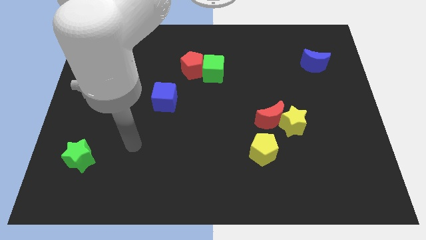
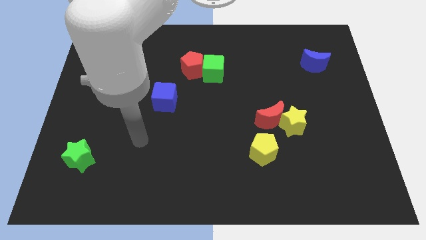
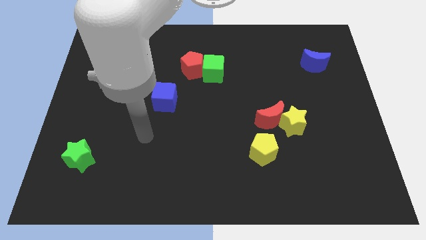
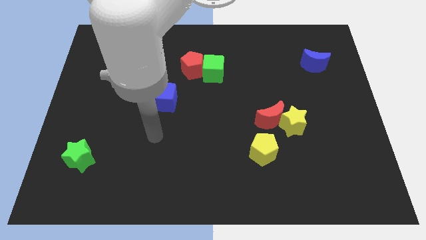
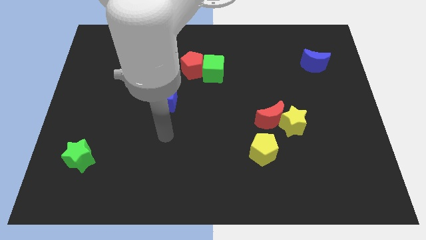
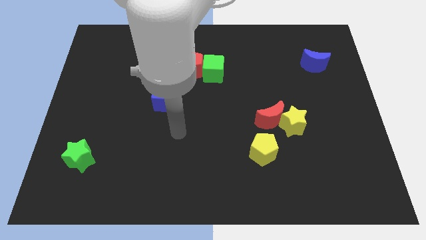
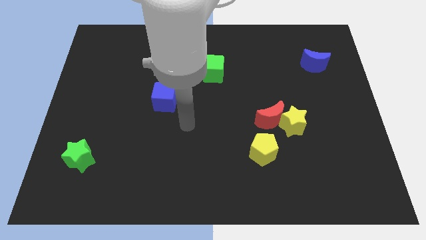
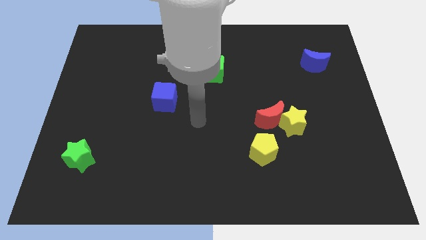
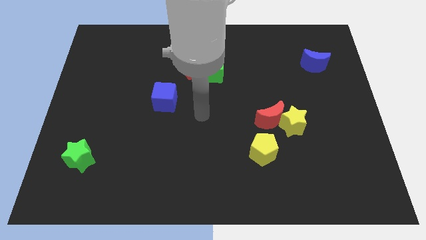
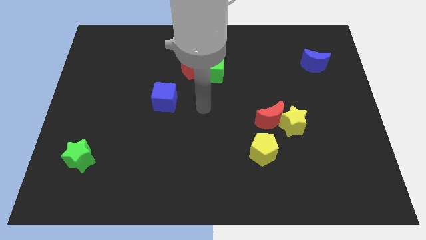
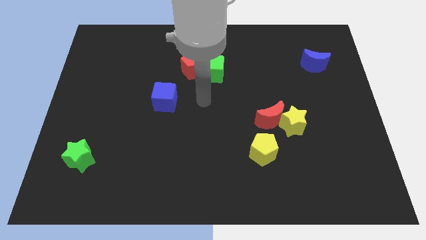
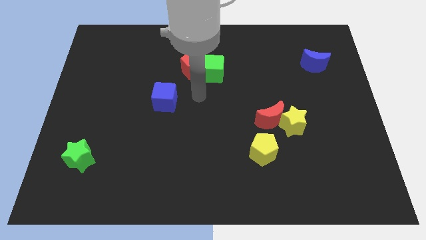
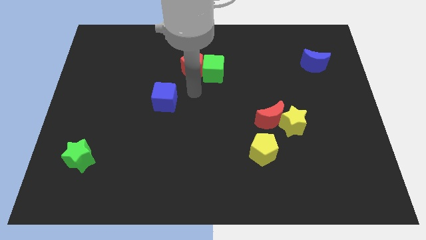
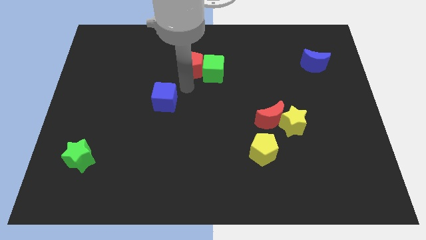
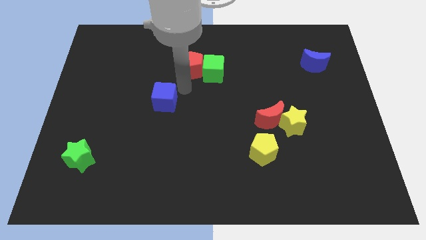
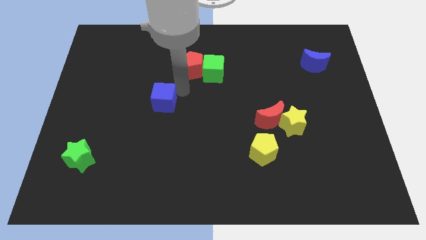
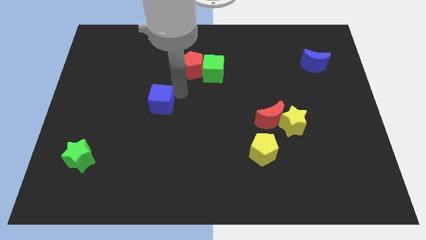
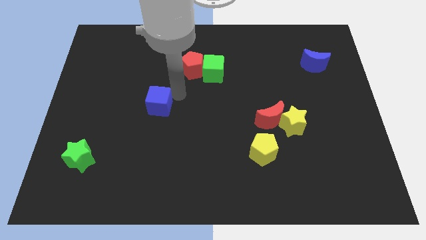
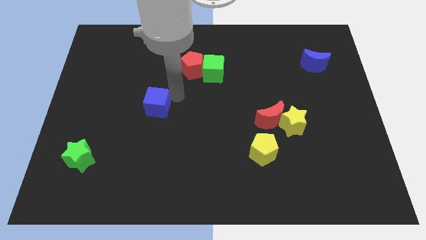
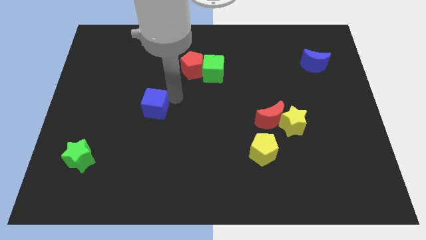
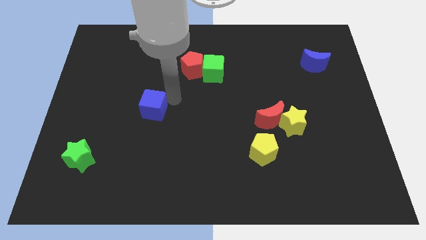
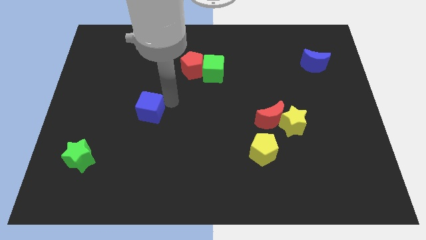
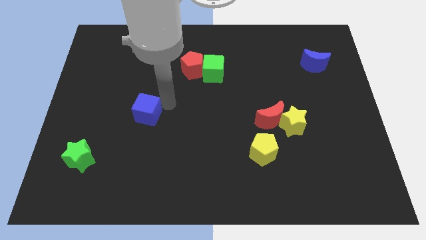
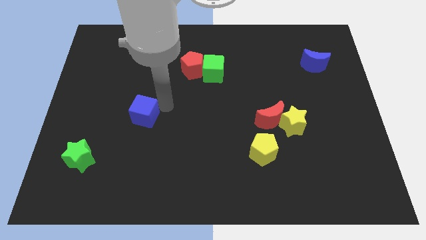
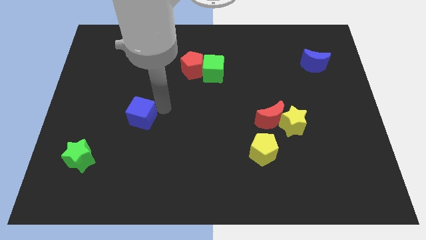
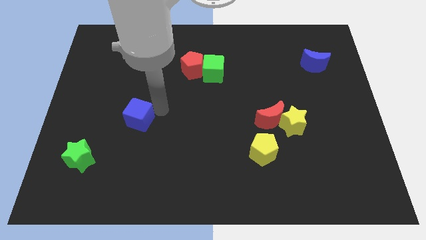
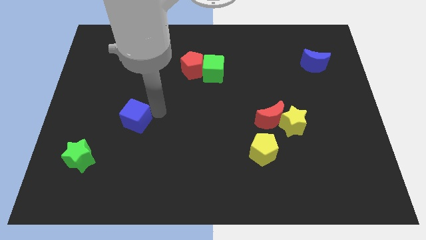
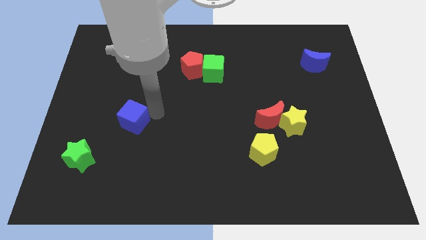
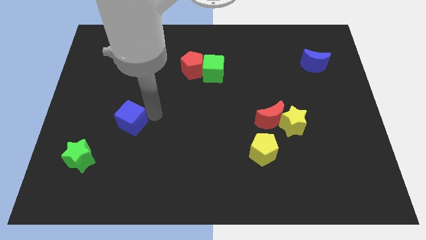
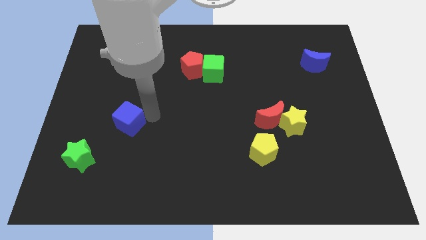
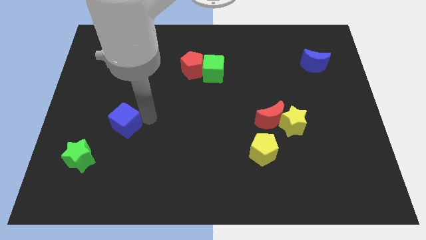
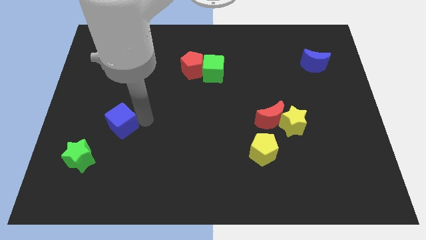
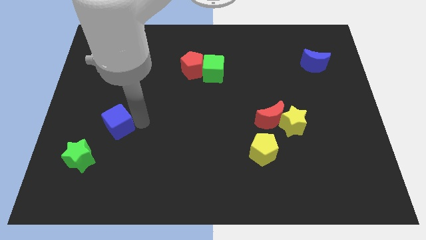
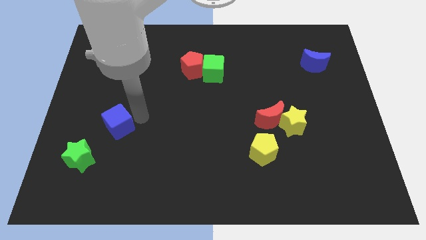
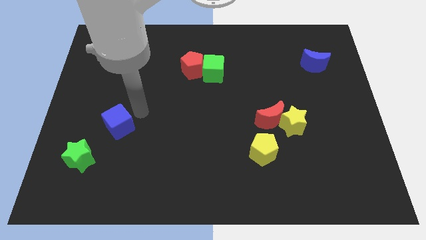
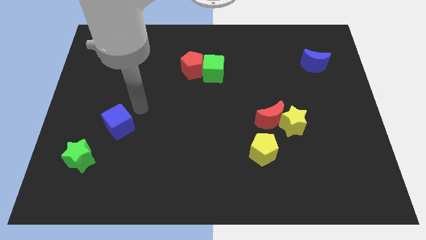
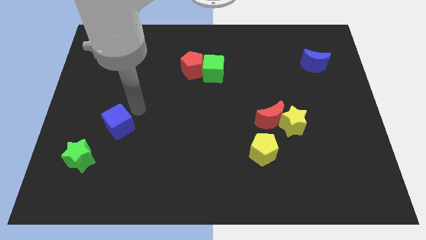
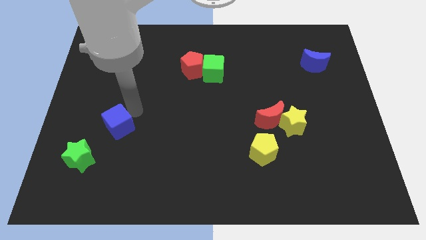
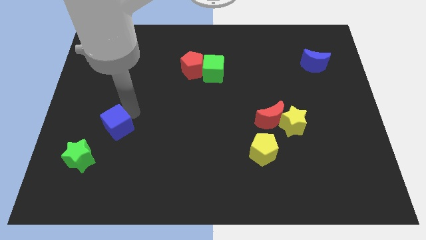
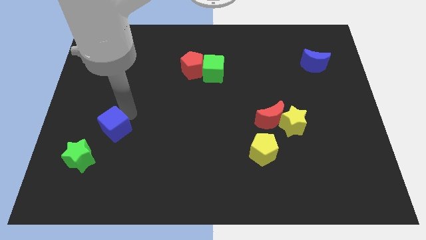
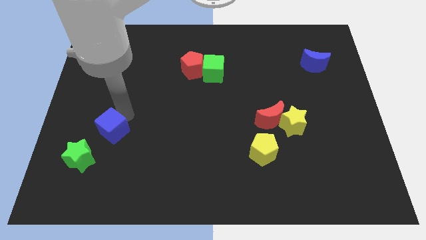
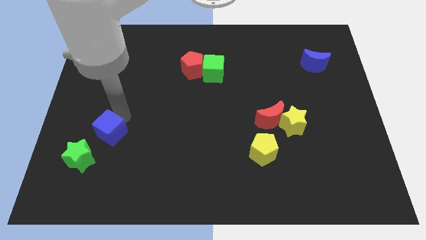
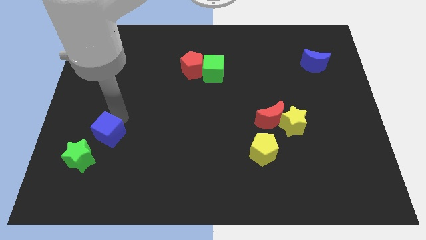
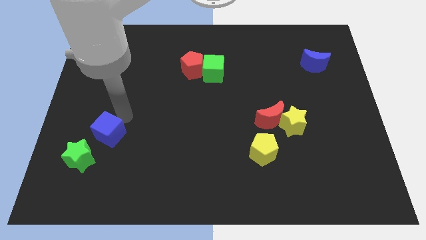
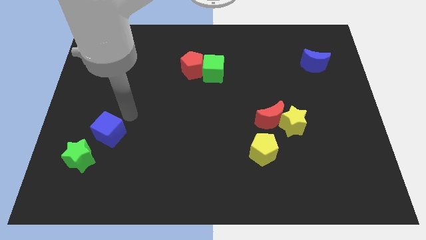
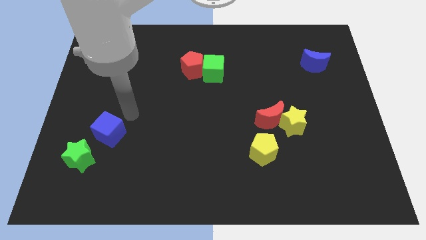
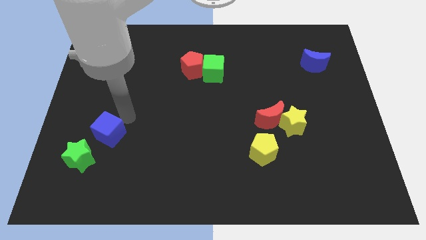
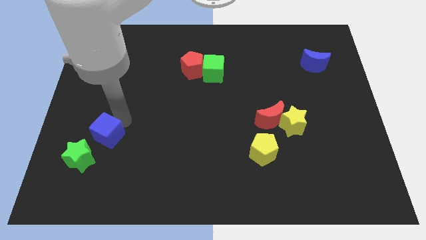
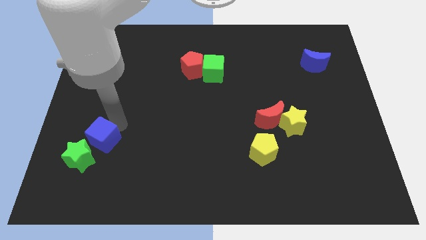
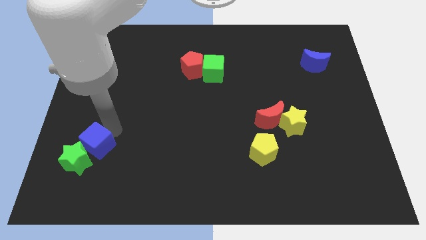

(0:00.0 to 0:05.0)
move the blue cube towards the green star

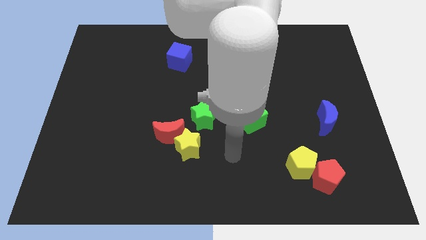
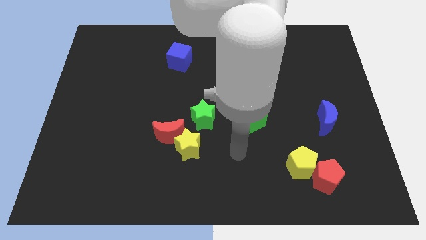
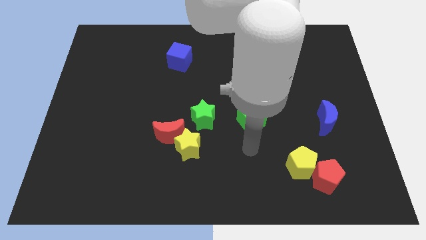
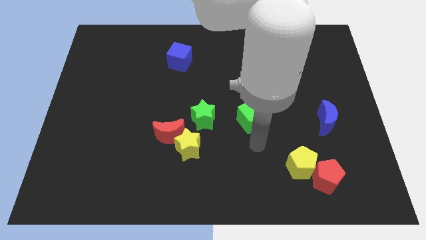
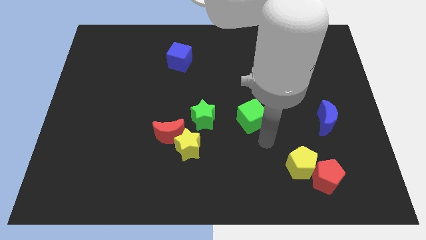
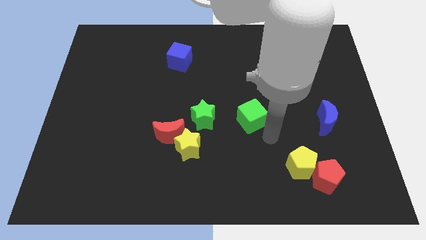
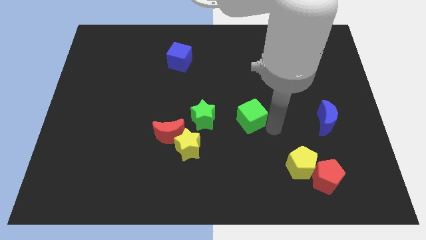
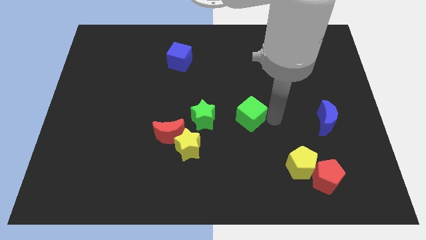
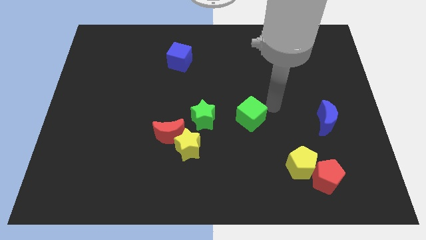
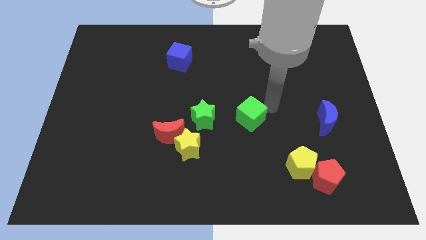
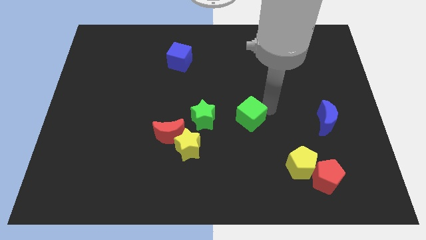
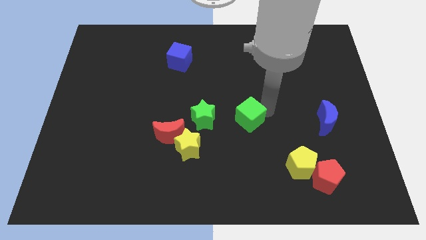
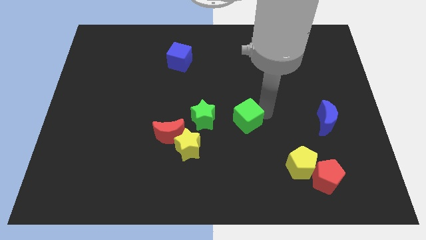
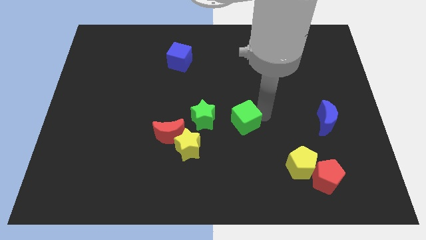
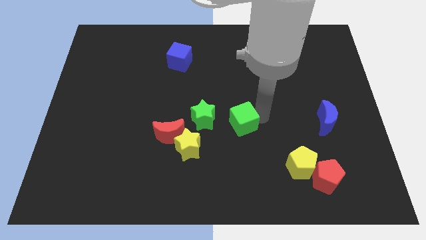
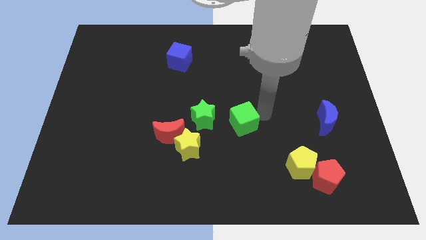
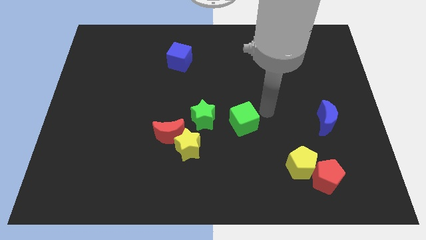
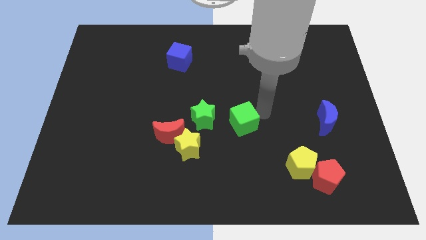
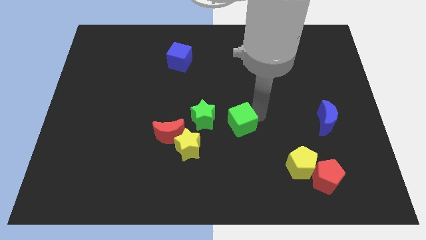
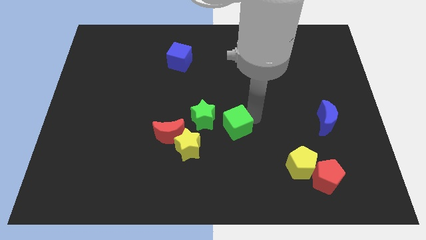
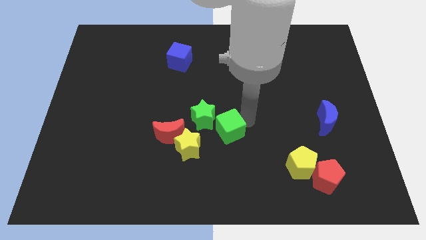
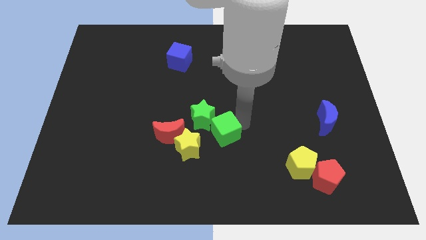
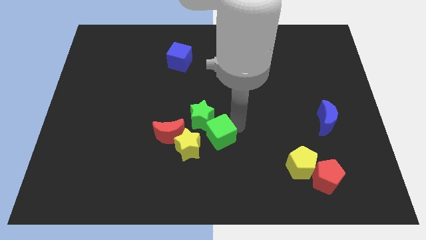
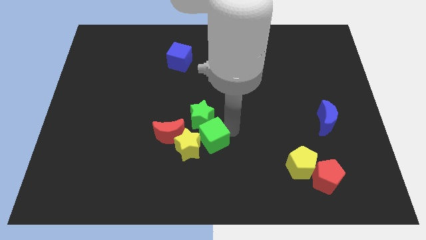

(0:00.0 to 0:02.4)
move the green cube to the yellow star

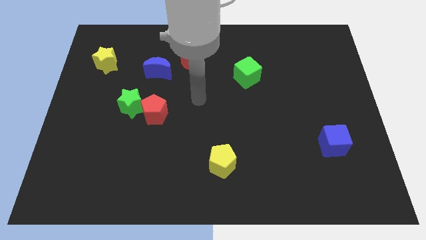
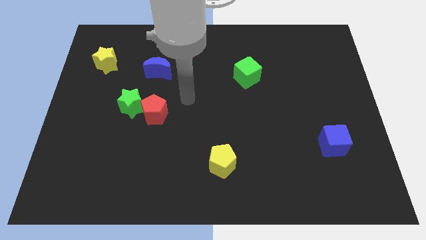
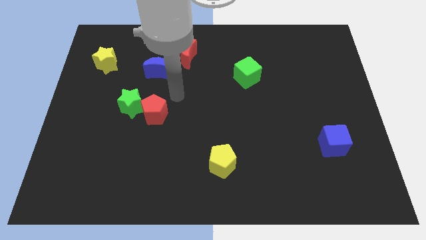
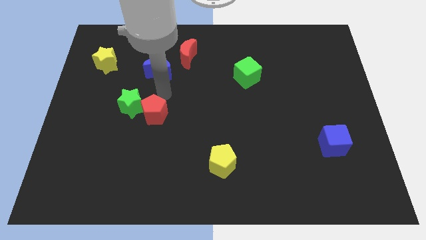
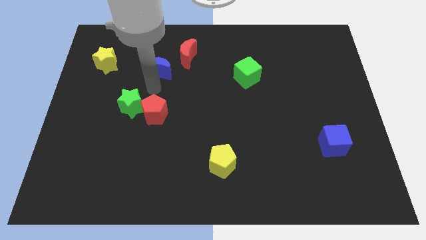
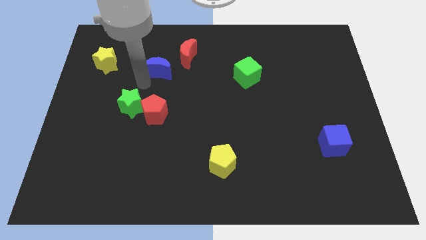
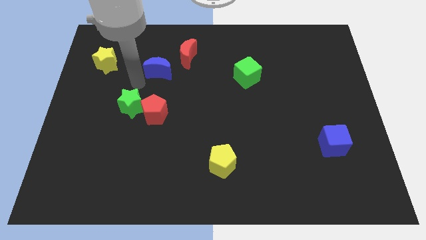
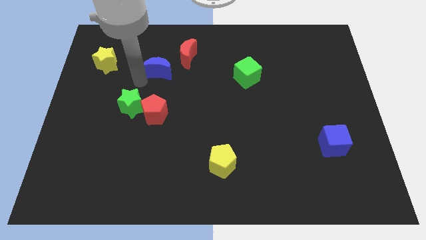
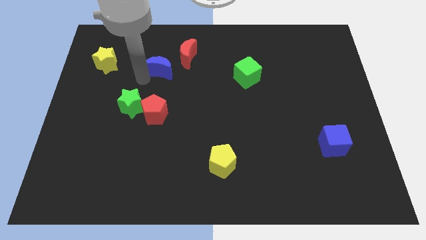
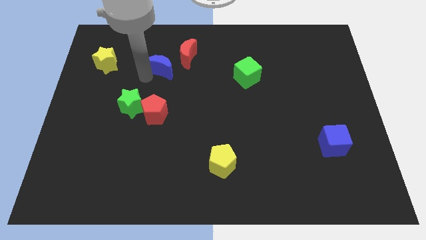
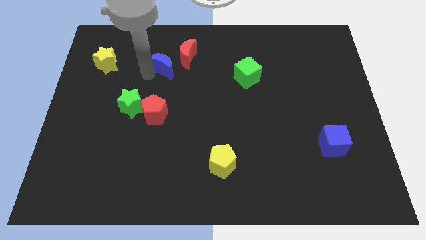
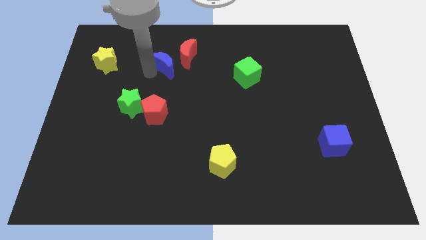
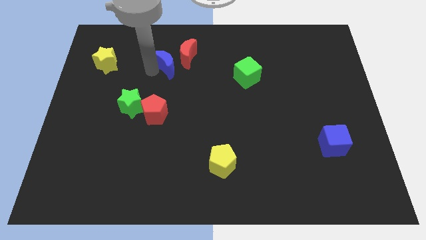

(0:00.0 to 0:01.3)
slide the blue moon to the red moon
